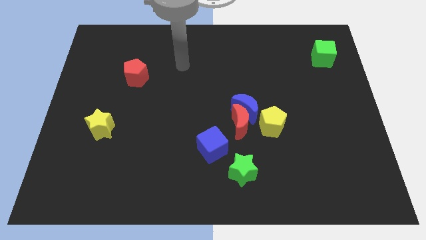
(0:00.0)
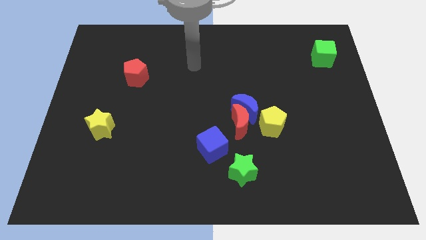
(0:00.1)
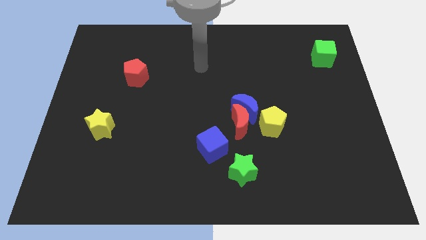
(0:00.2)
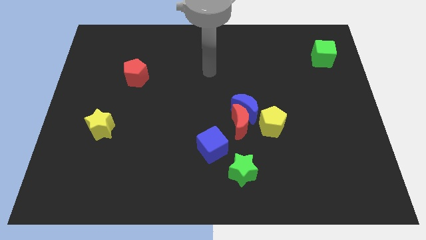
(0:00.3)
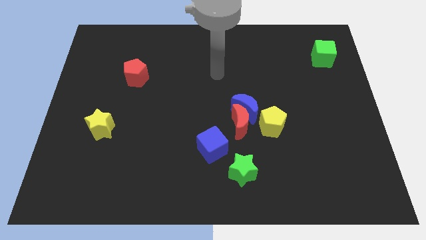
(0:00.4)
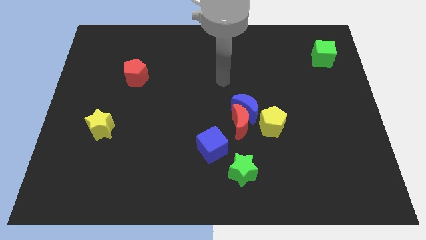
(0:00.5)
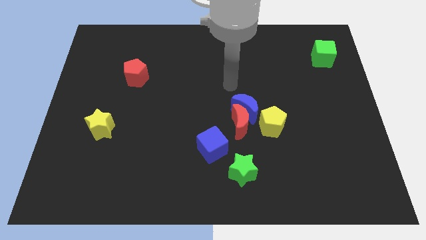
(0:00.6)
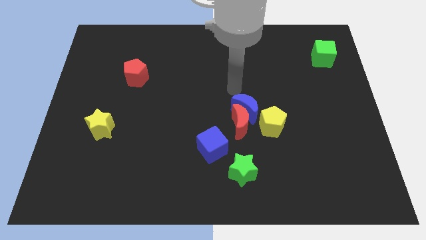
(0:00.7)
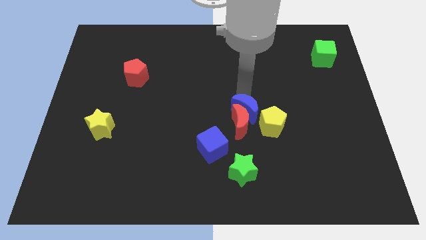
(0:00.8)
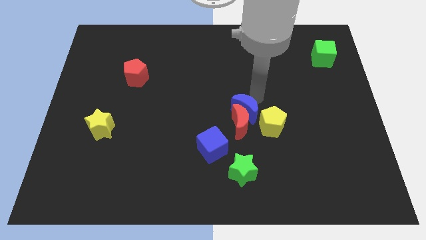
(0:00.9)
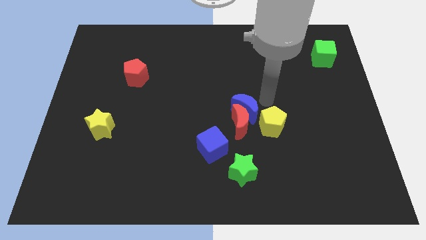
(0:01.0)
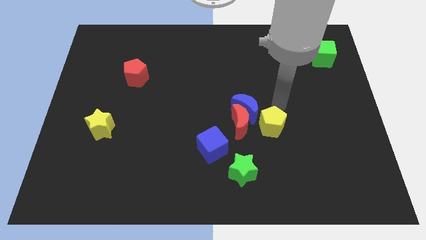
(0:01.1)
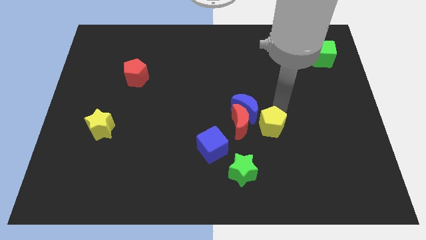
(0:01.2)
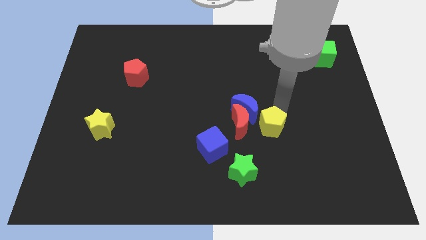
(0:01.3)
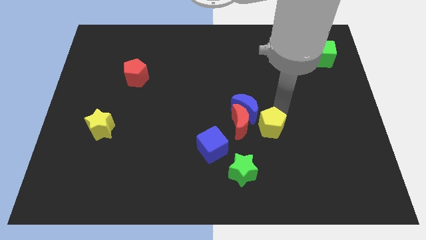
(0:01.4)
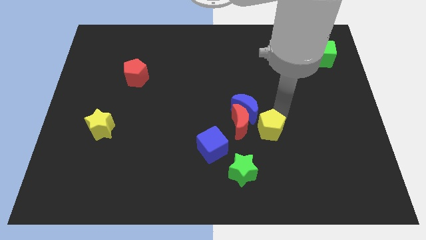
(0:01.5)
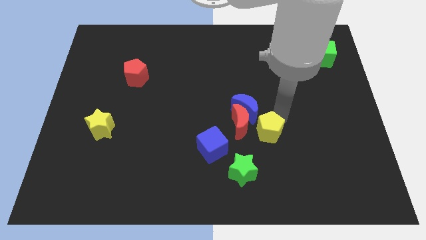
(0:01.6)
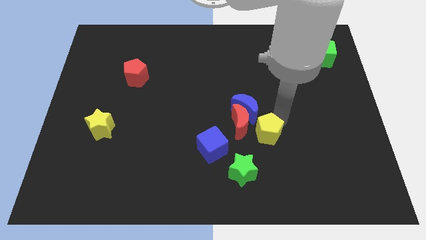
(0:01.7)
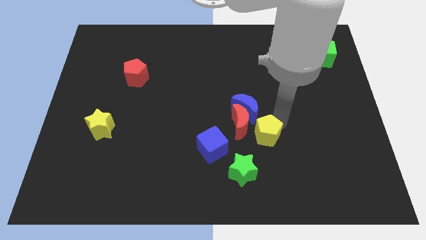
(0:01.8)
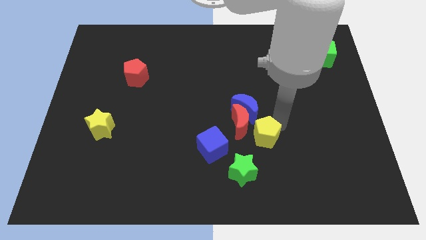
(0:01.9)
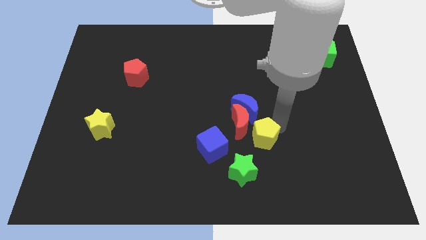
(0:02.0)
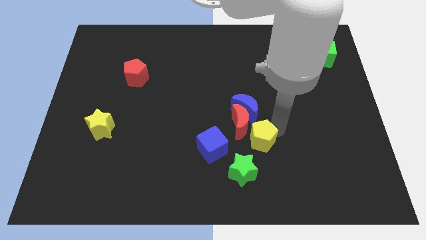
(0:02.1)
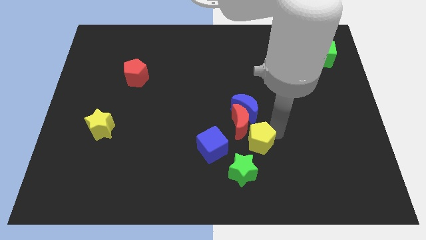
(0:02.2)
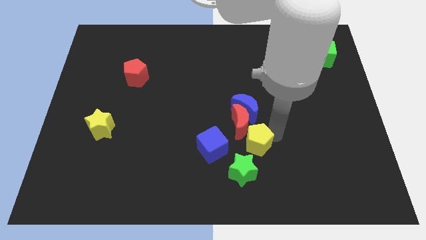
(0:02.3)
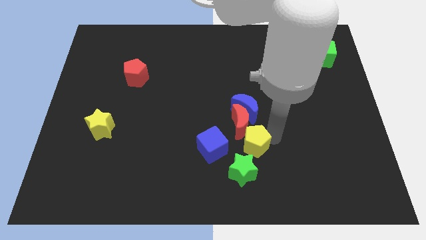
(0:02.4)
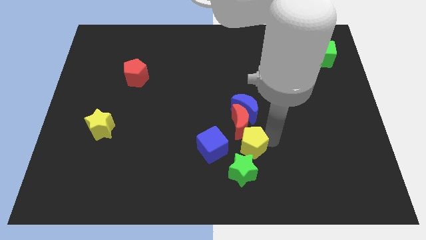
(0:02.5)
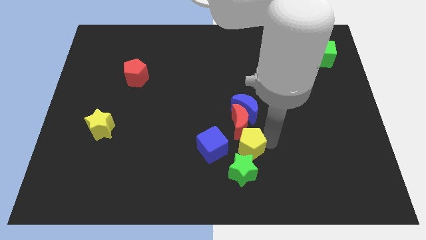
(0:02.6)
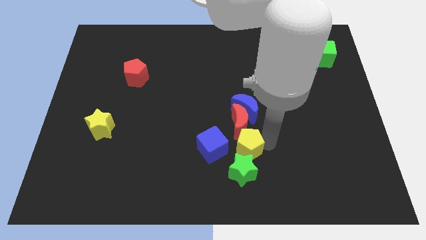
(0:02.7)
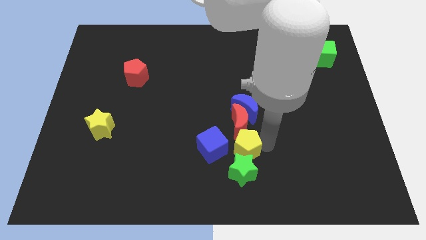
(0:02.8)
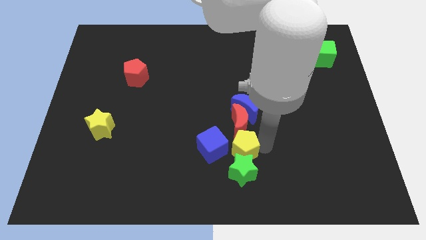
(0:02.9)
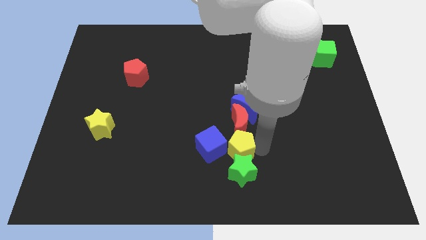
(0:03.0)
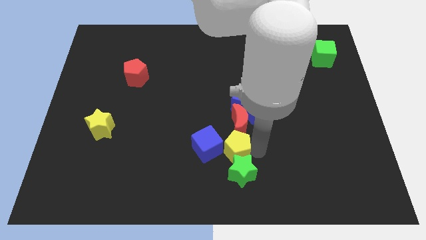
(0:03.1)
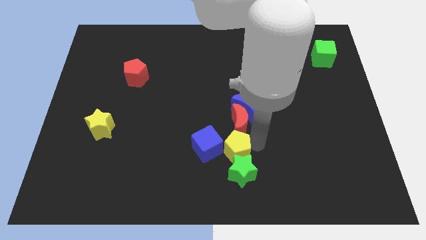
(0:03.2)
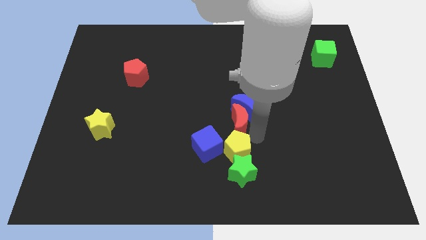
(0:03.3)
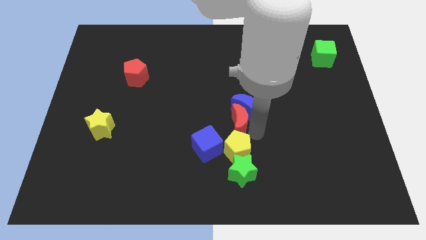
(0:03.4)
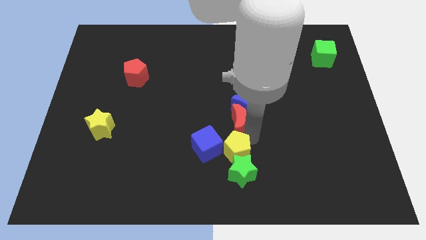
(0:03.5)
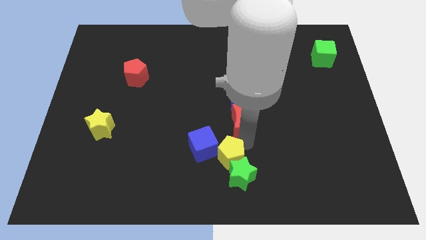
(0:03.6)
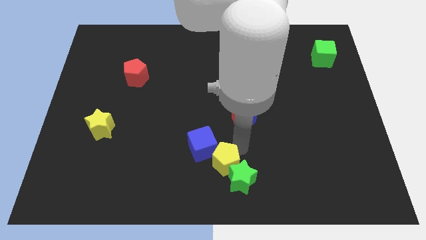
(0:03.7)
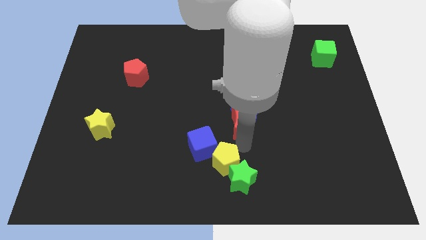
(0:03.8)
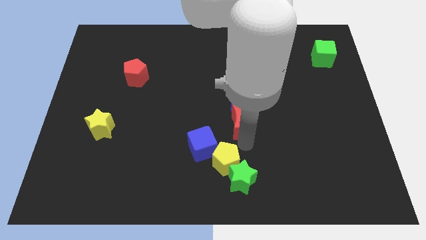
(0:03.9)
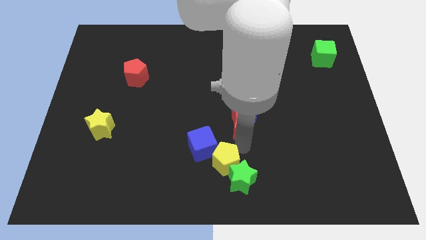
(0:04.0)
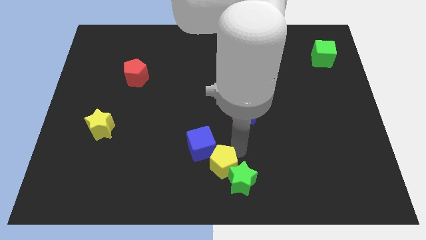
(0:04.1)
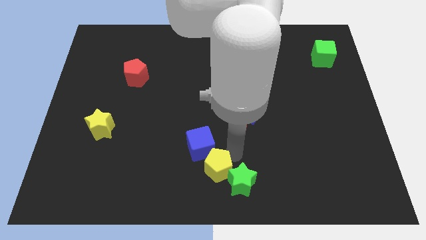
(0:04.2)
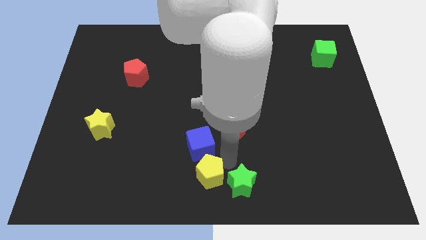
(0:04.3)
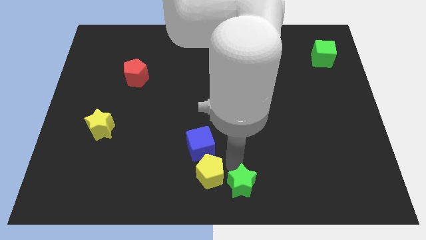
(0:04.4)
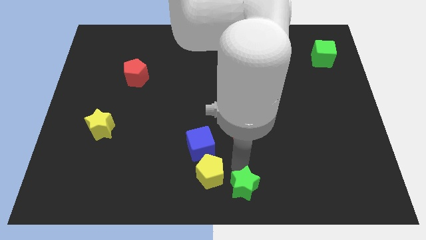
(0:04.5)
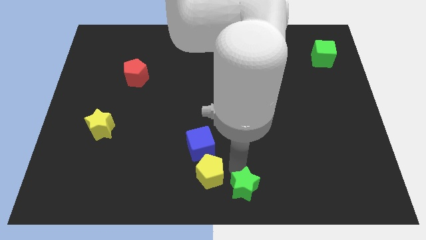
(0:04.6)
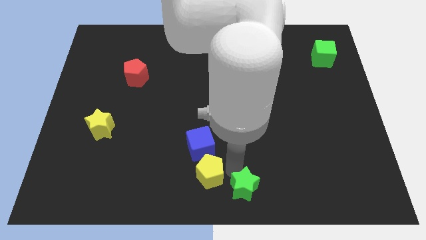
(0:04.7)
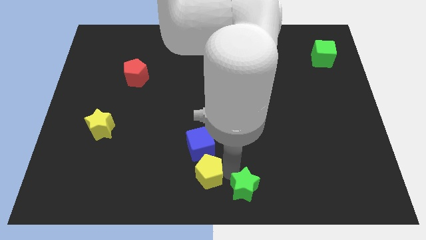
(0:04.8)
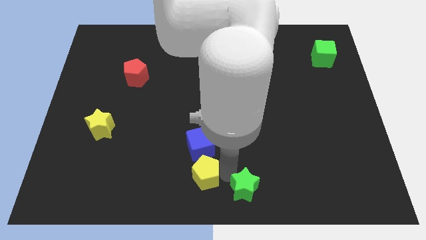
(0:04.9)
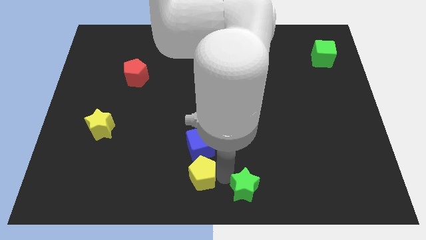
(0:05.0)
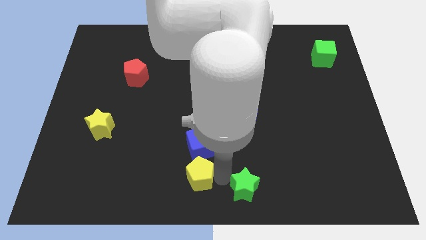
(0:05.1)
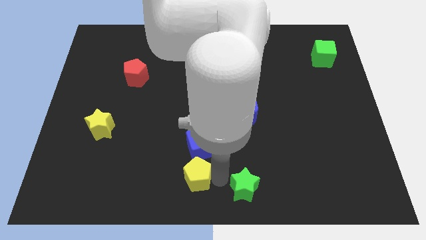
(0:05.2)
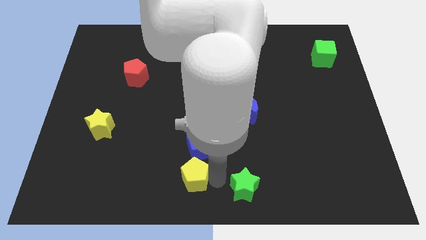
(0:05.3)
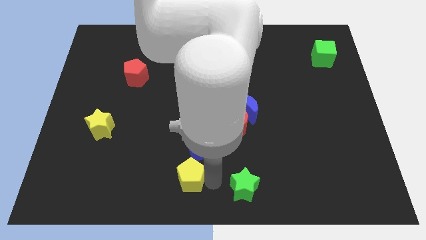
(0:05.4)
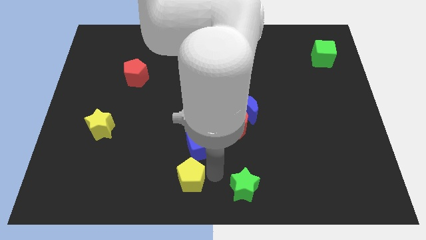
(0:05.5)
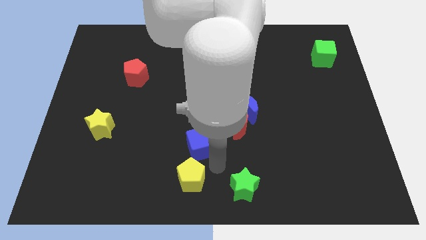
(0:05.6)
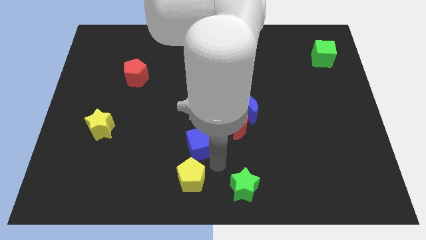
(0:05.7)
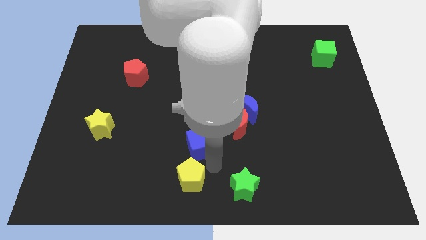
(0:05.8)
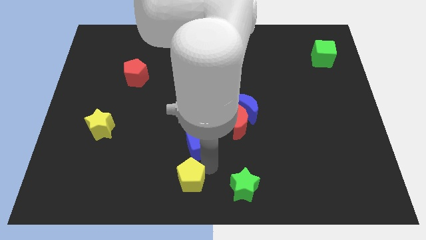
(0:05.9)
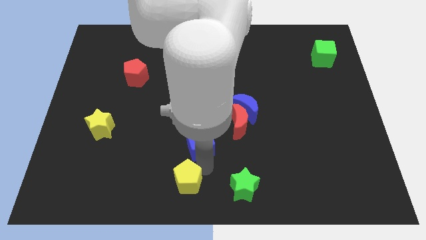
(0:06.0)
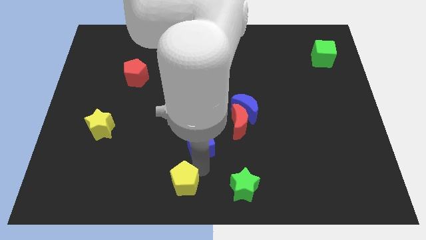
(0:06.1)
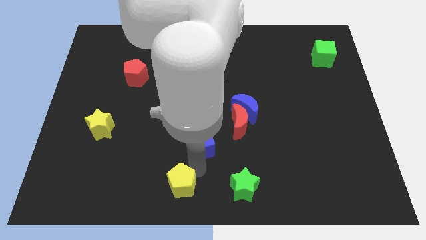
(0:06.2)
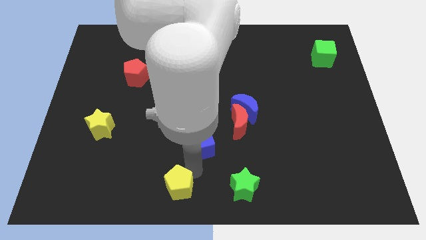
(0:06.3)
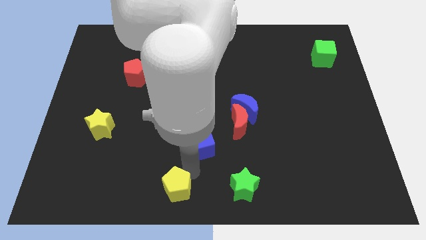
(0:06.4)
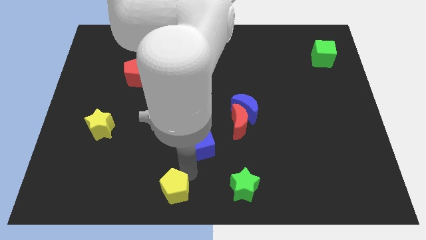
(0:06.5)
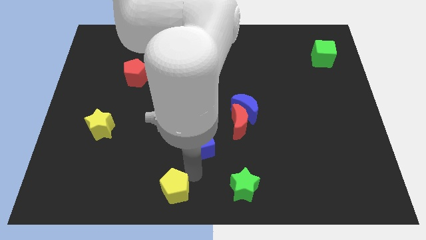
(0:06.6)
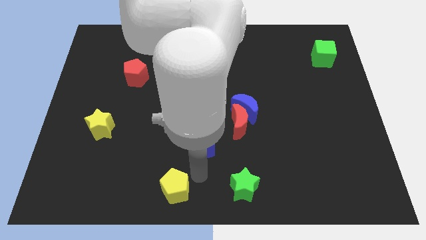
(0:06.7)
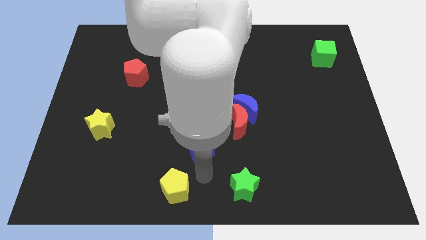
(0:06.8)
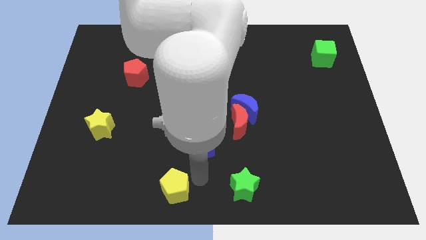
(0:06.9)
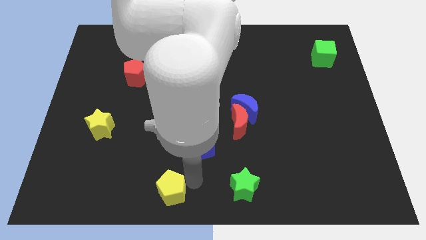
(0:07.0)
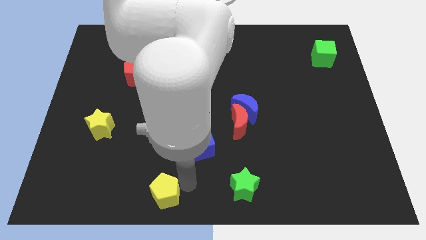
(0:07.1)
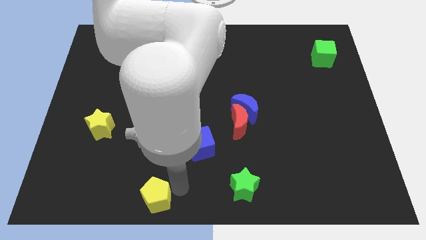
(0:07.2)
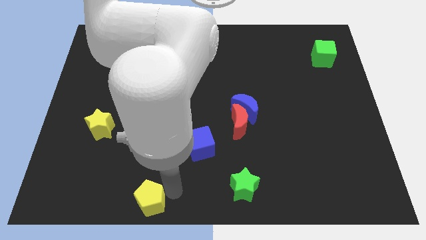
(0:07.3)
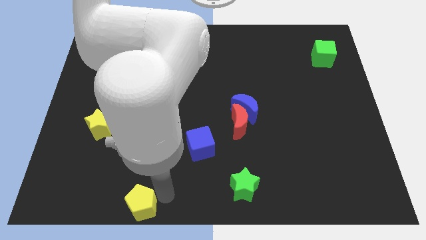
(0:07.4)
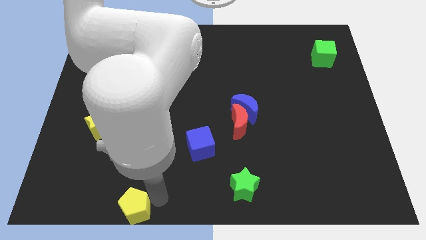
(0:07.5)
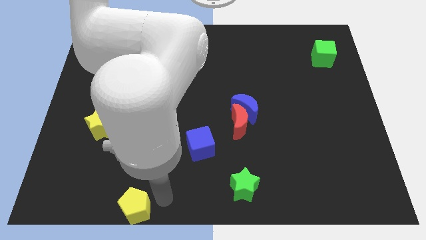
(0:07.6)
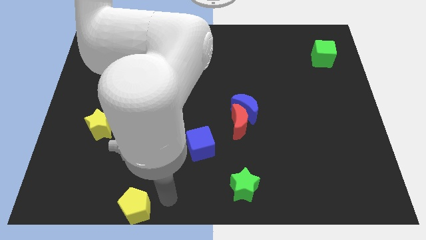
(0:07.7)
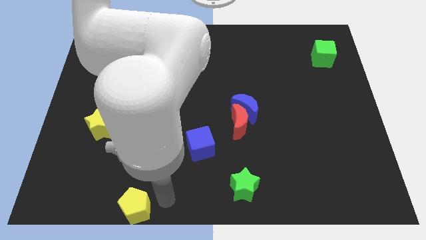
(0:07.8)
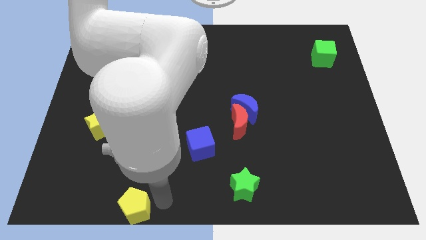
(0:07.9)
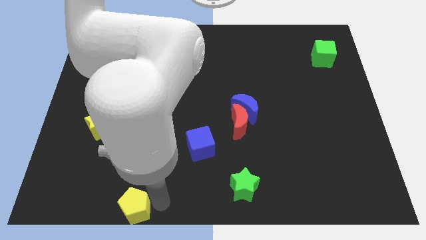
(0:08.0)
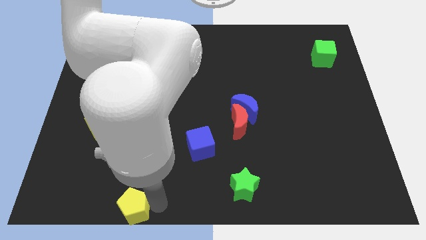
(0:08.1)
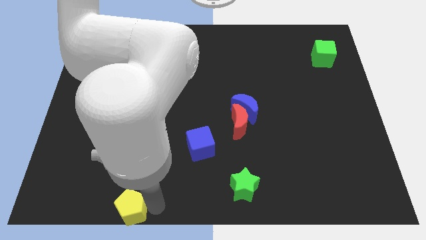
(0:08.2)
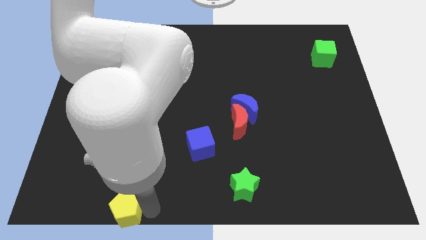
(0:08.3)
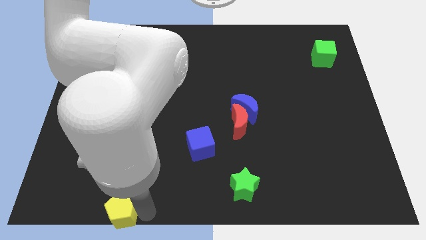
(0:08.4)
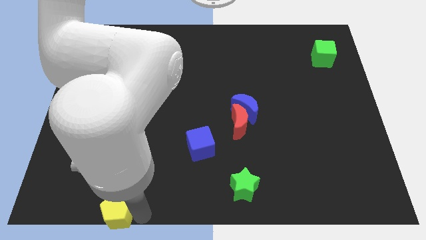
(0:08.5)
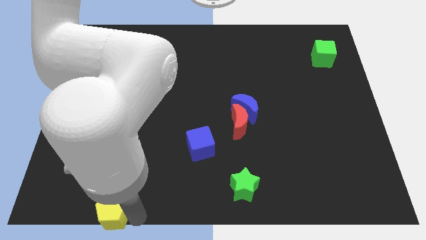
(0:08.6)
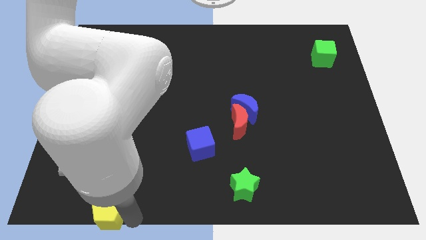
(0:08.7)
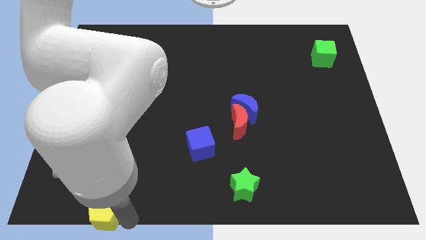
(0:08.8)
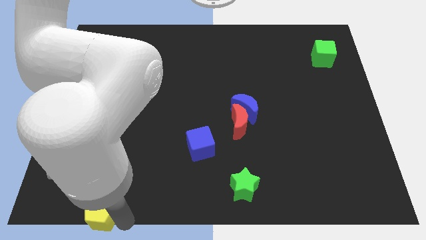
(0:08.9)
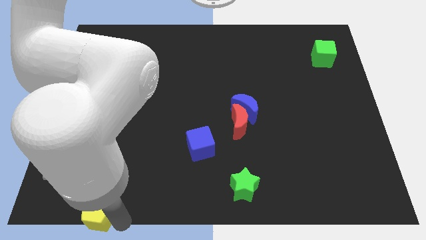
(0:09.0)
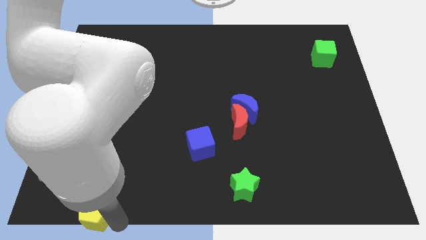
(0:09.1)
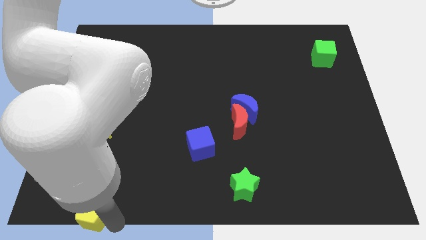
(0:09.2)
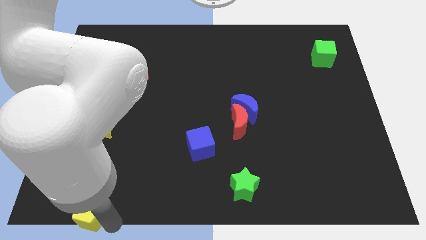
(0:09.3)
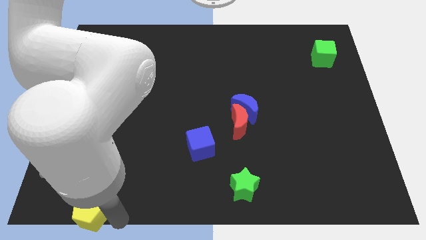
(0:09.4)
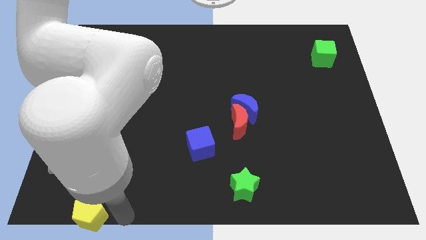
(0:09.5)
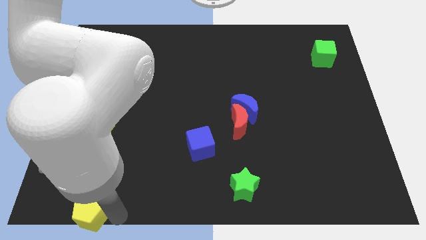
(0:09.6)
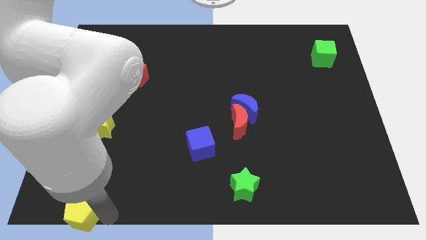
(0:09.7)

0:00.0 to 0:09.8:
slide the yellow pentagon to the bottom left of the board
